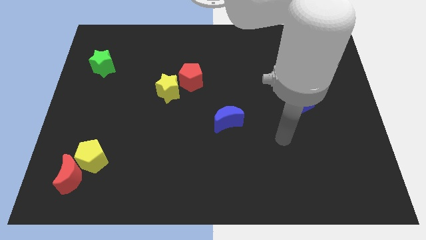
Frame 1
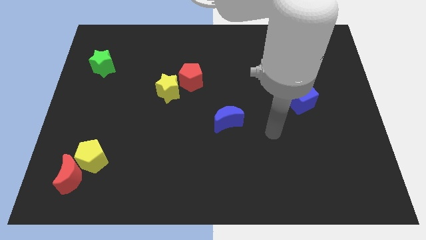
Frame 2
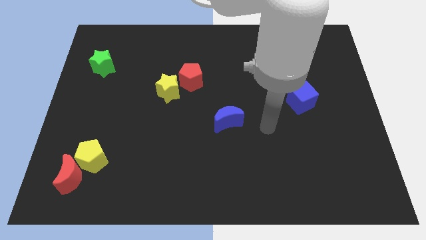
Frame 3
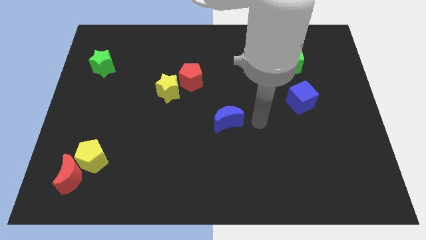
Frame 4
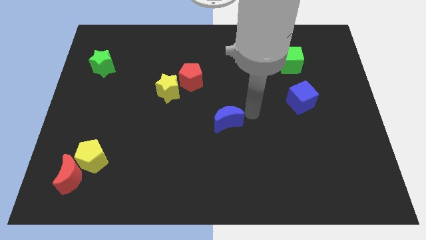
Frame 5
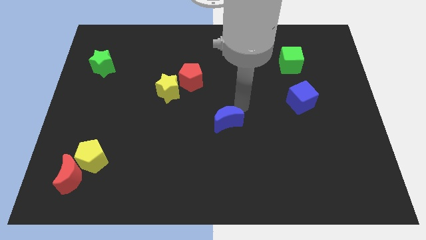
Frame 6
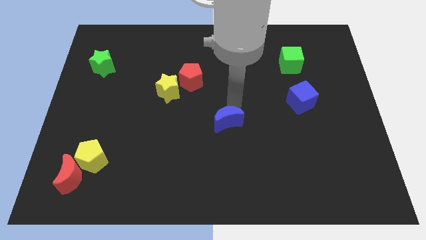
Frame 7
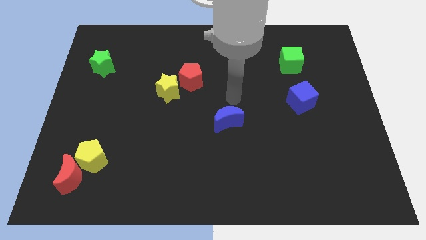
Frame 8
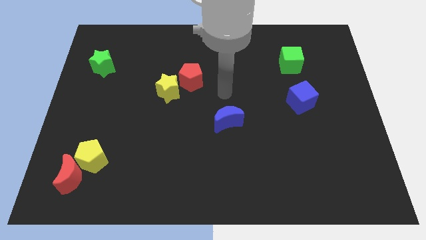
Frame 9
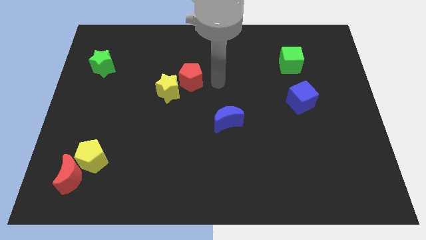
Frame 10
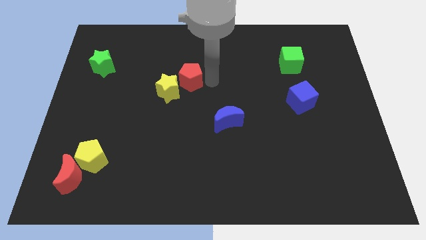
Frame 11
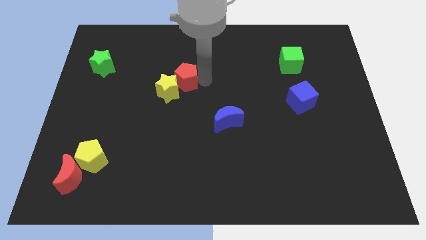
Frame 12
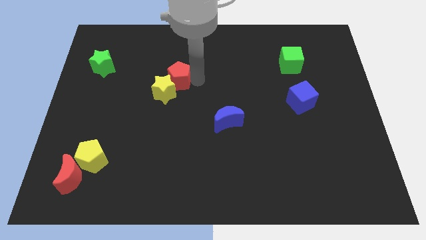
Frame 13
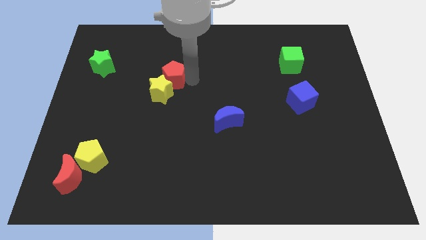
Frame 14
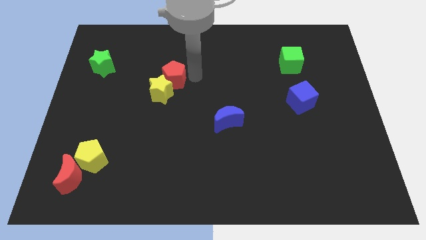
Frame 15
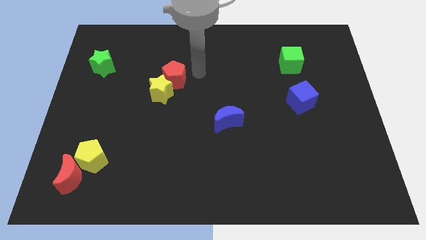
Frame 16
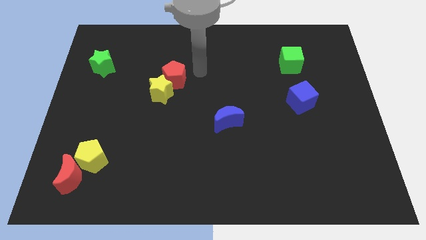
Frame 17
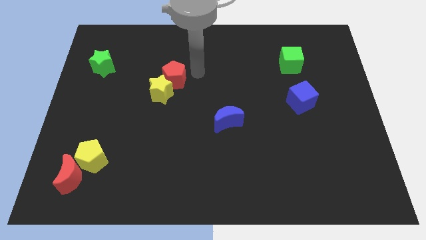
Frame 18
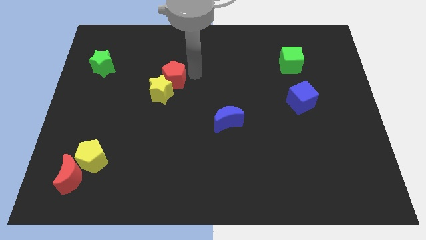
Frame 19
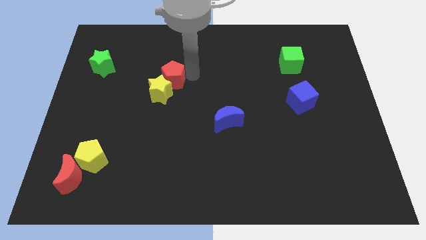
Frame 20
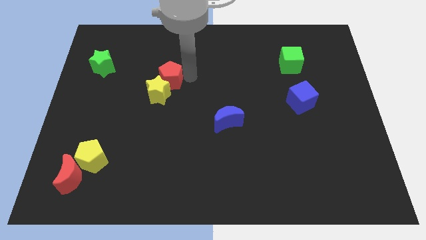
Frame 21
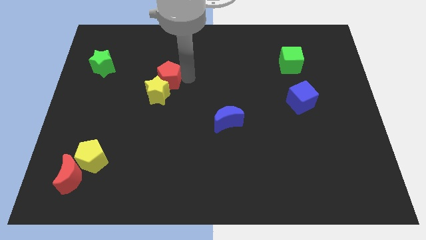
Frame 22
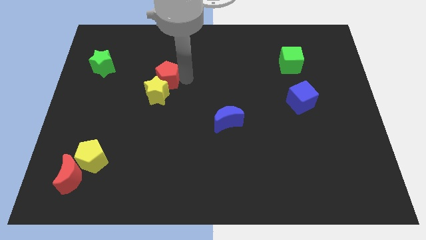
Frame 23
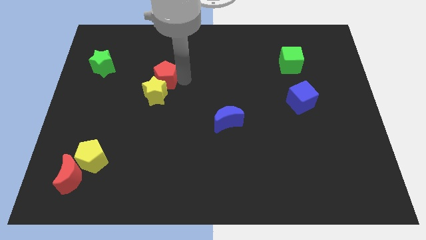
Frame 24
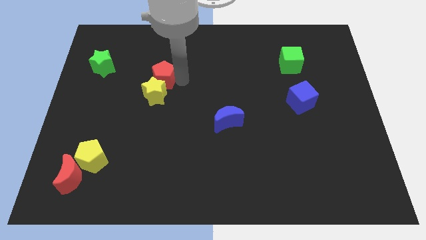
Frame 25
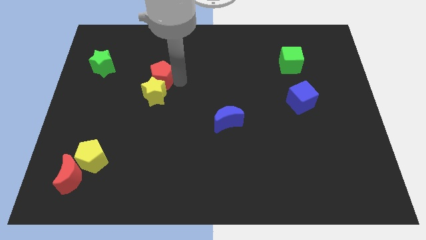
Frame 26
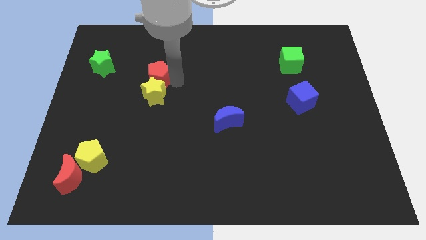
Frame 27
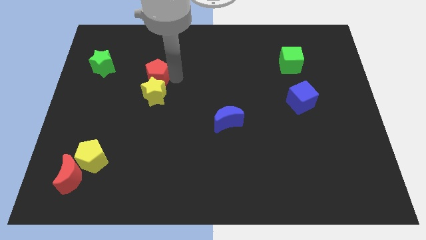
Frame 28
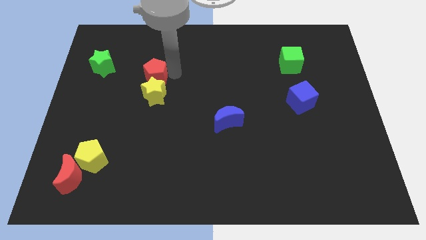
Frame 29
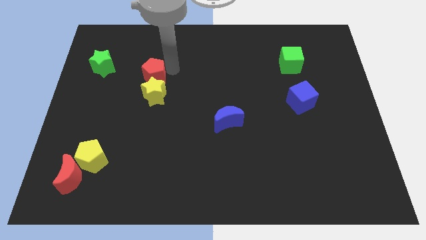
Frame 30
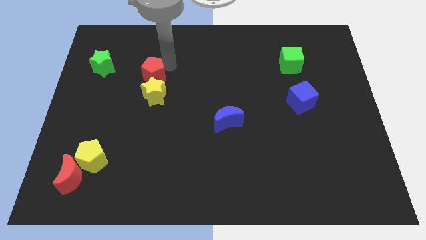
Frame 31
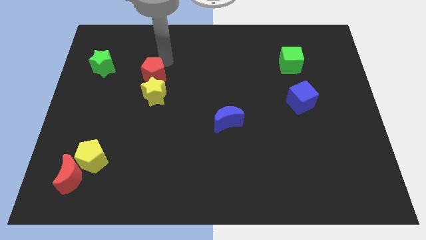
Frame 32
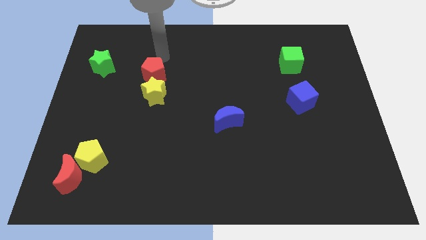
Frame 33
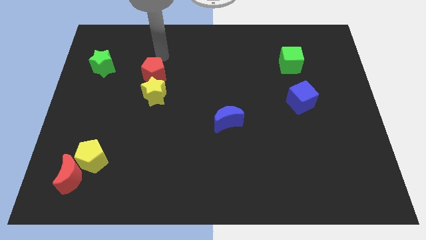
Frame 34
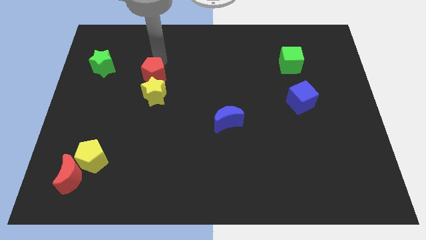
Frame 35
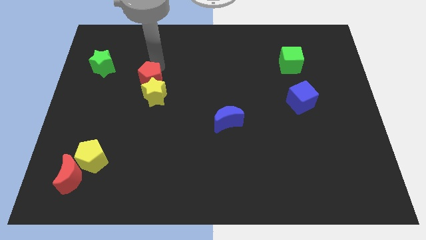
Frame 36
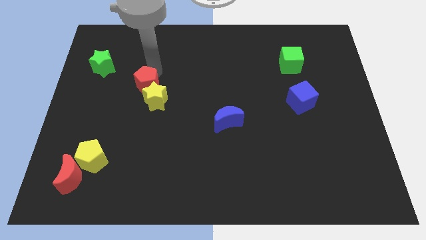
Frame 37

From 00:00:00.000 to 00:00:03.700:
move the red pentagon a bit diagonally down and to the left

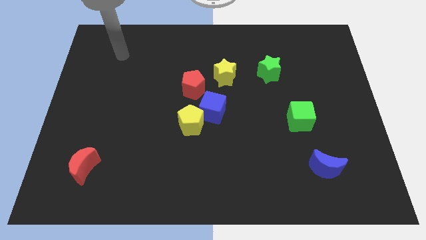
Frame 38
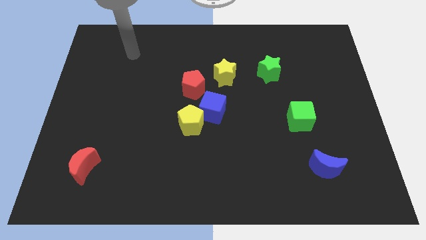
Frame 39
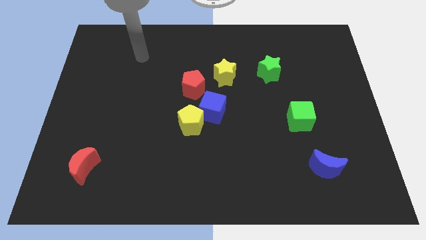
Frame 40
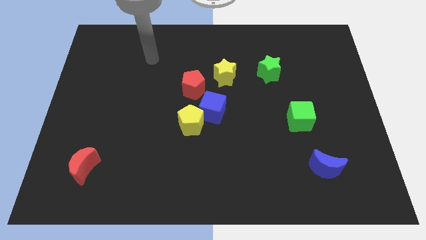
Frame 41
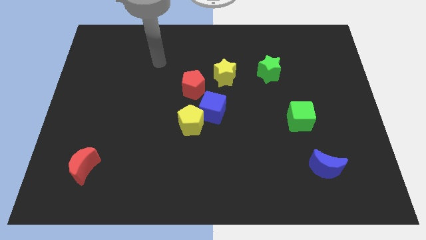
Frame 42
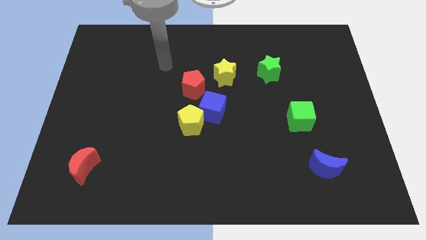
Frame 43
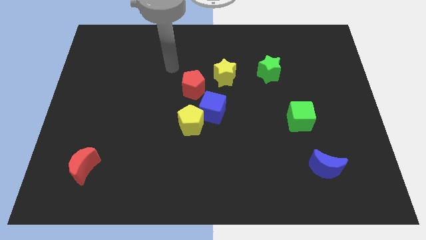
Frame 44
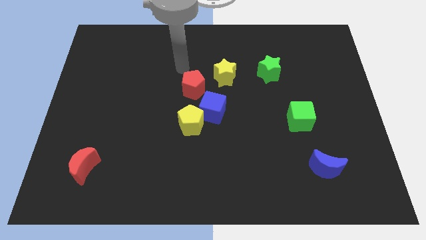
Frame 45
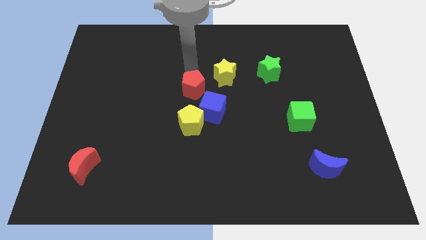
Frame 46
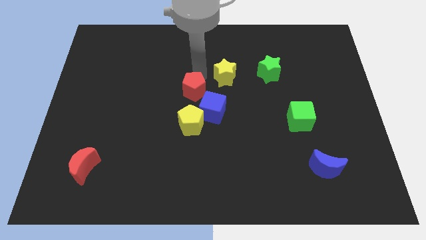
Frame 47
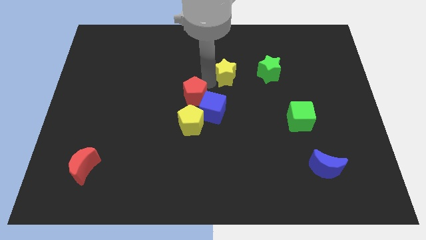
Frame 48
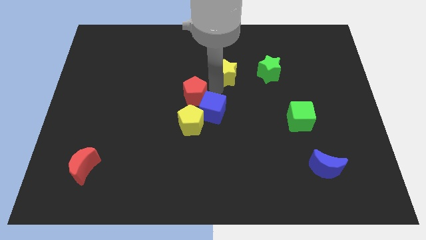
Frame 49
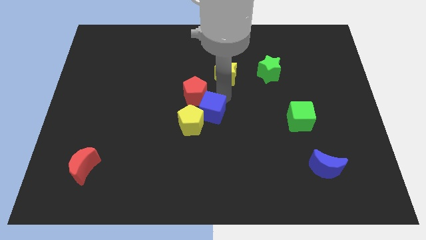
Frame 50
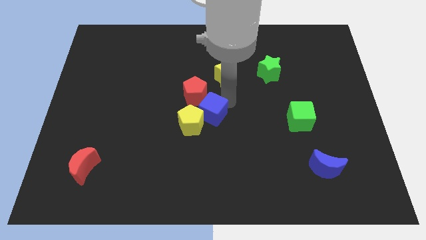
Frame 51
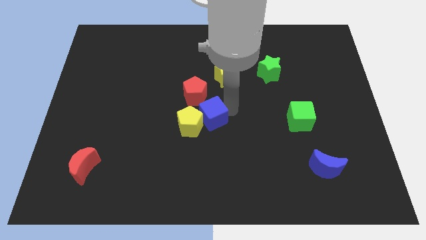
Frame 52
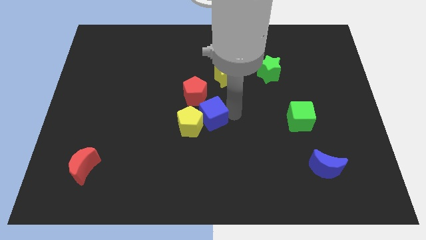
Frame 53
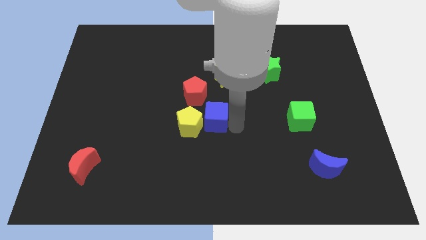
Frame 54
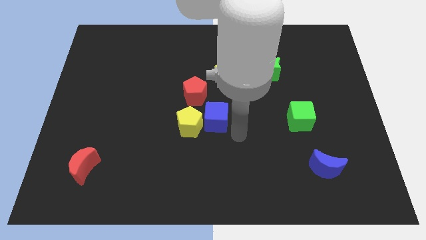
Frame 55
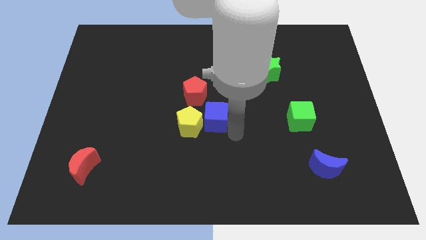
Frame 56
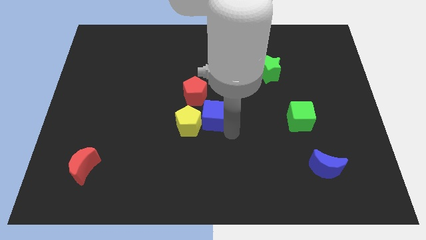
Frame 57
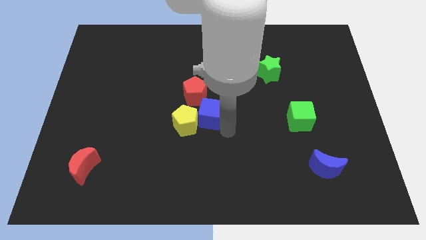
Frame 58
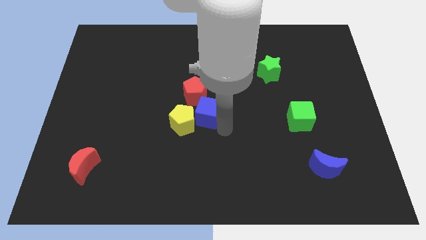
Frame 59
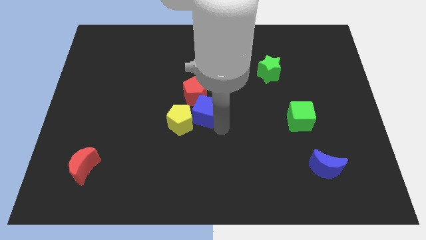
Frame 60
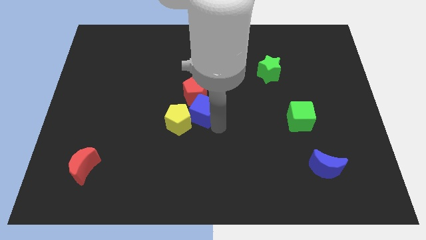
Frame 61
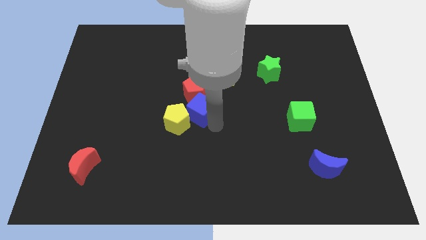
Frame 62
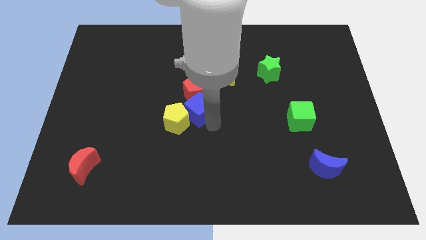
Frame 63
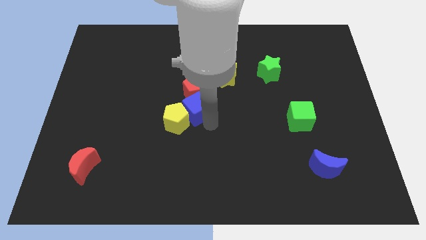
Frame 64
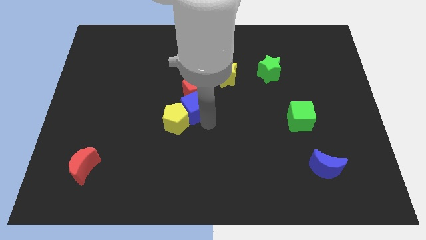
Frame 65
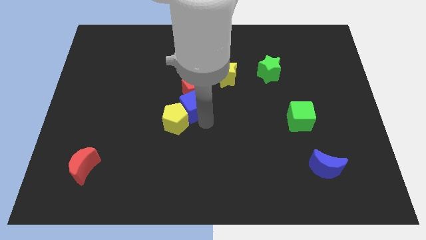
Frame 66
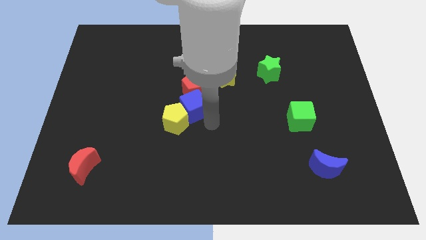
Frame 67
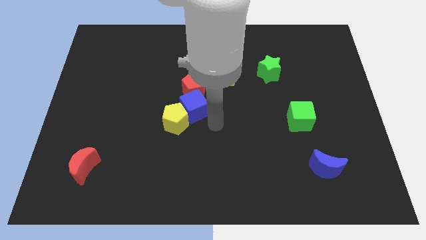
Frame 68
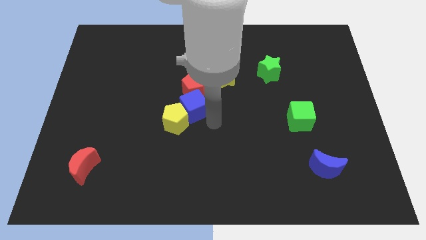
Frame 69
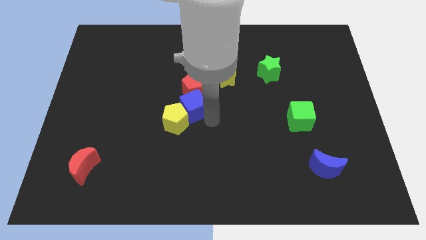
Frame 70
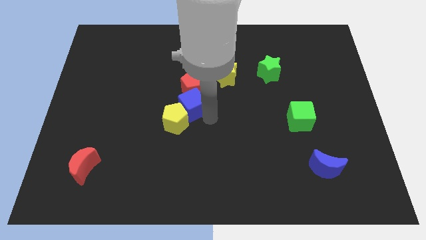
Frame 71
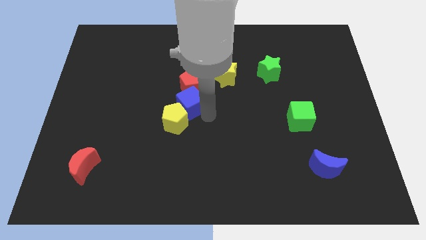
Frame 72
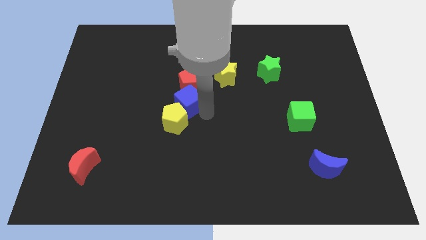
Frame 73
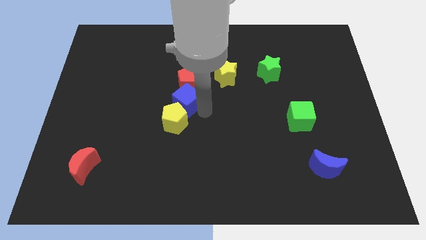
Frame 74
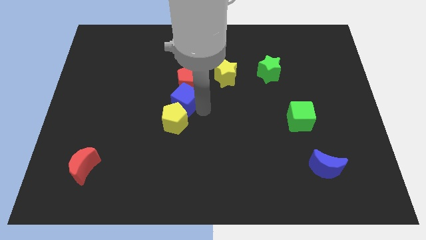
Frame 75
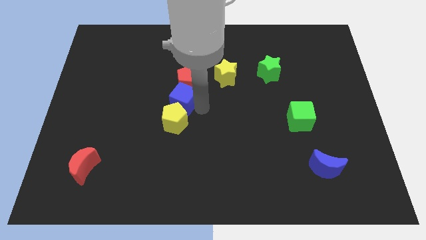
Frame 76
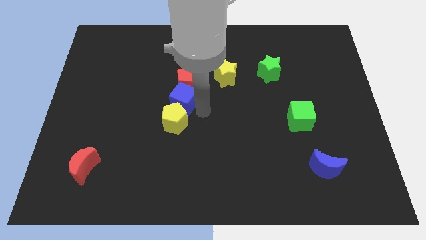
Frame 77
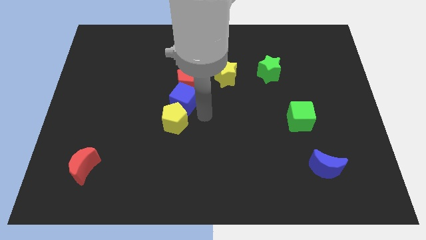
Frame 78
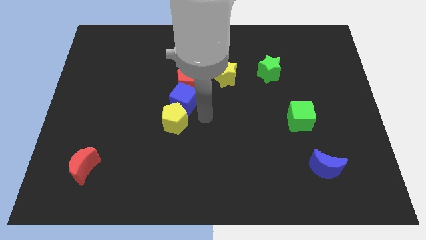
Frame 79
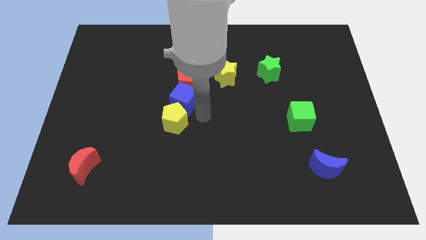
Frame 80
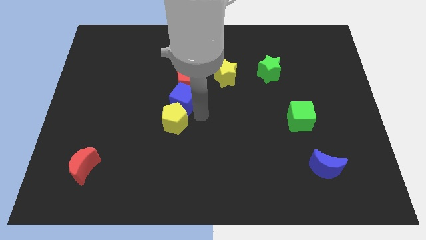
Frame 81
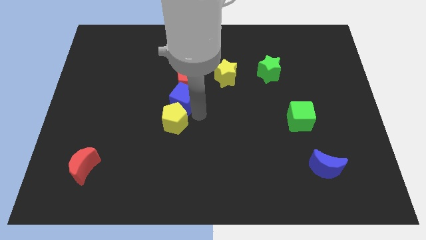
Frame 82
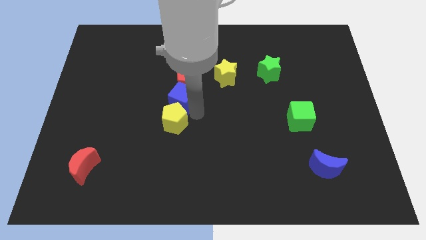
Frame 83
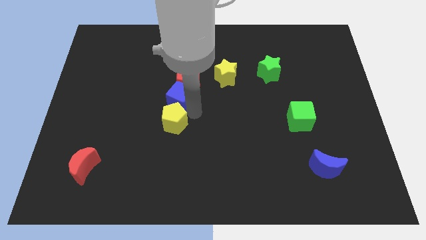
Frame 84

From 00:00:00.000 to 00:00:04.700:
slightly move the blue cube up and to the left
